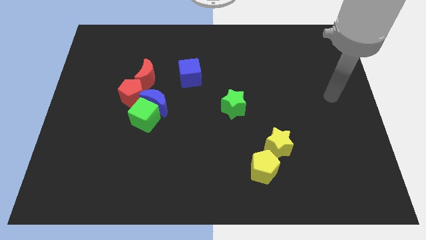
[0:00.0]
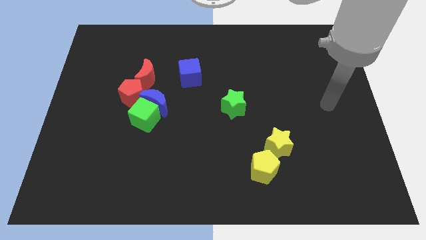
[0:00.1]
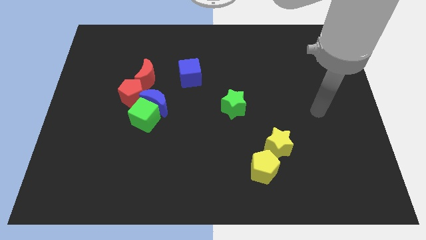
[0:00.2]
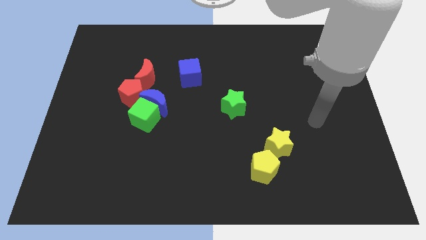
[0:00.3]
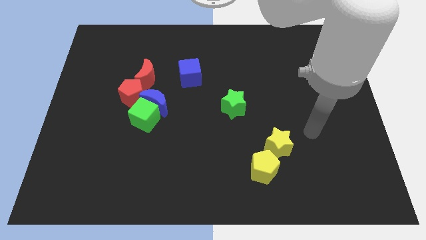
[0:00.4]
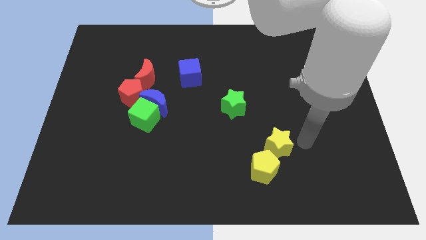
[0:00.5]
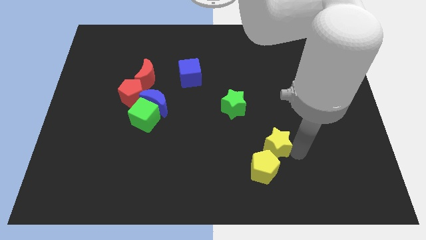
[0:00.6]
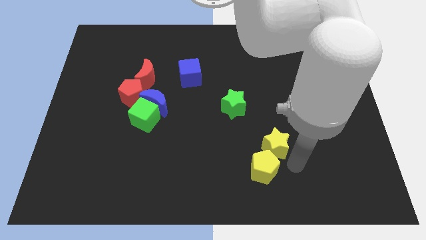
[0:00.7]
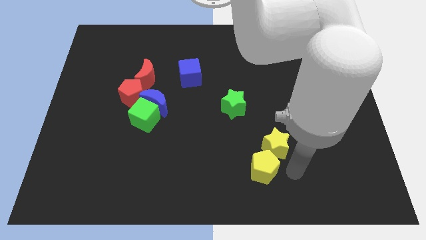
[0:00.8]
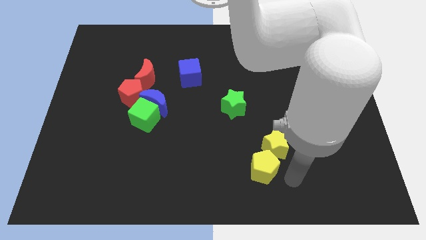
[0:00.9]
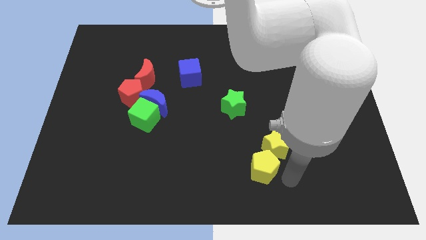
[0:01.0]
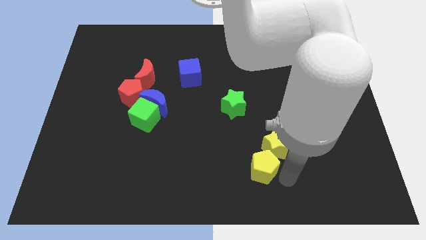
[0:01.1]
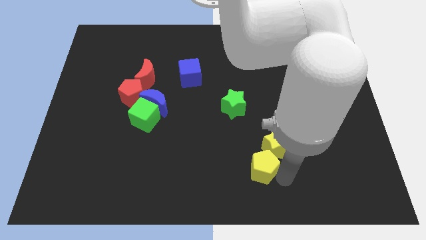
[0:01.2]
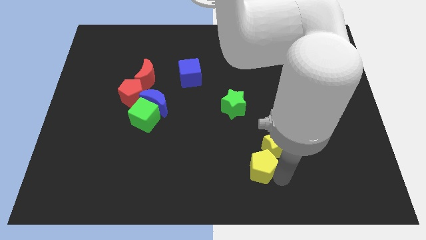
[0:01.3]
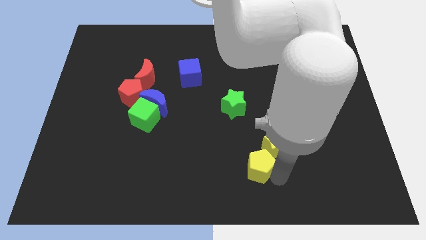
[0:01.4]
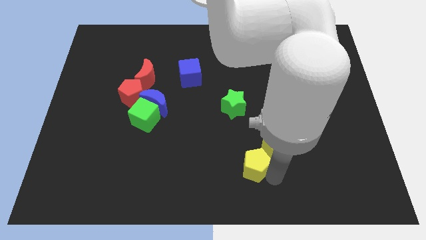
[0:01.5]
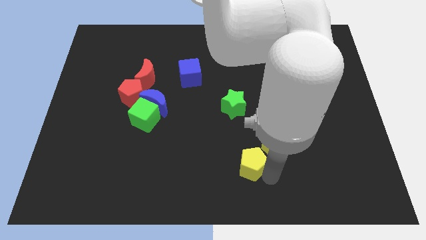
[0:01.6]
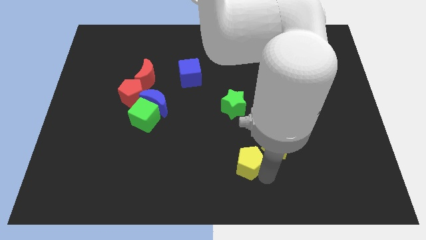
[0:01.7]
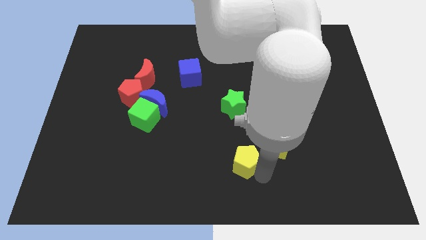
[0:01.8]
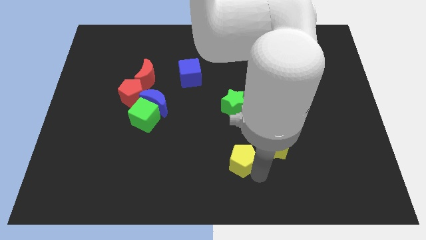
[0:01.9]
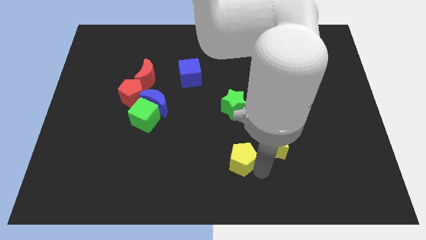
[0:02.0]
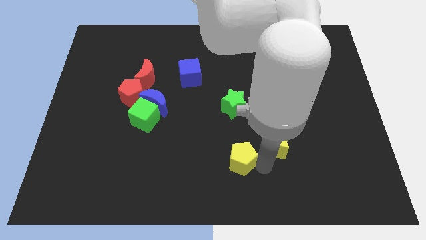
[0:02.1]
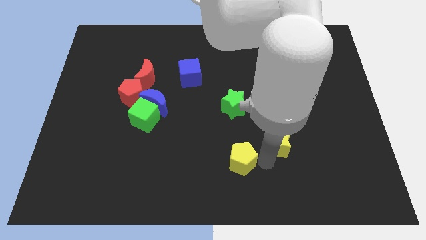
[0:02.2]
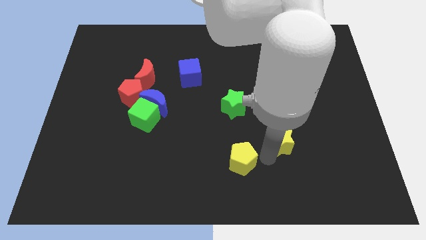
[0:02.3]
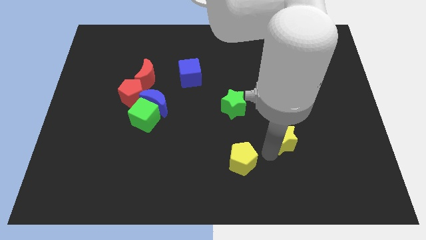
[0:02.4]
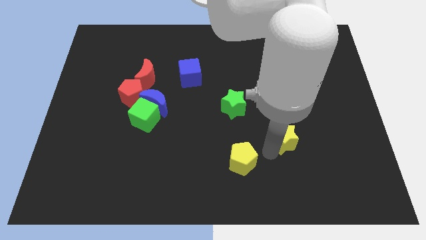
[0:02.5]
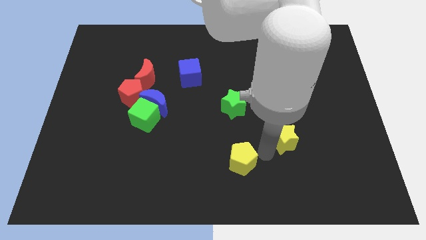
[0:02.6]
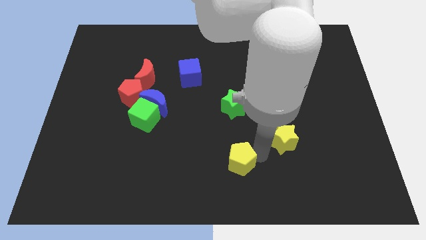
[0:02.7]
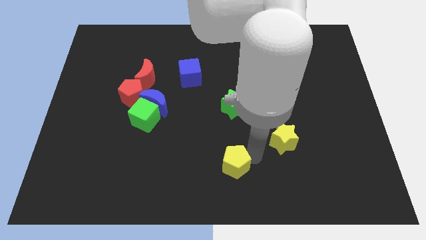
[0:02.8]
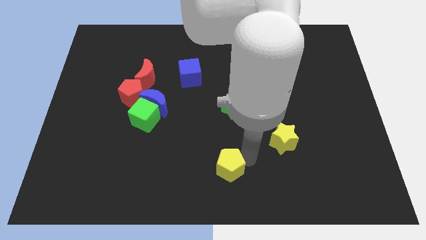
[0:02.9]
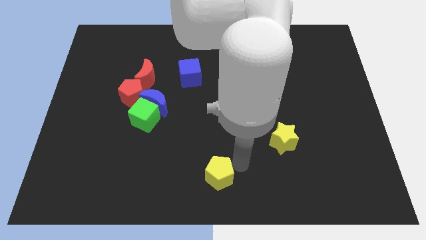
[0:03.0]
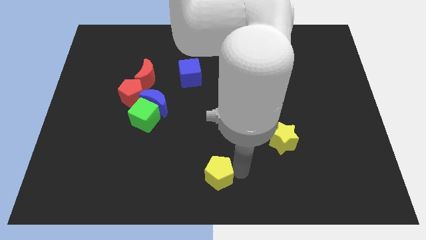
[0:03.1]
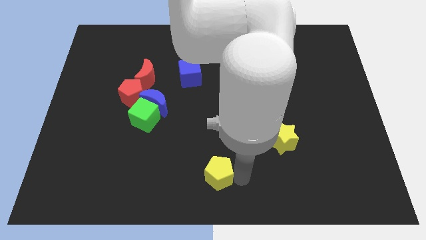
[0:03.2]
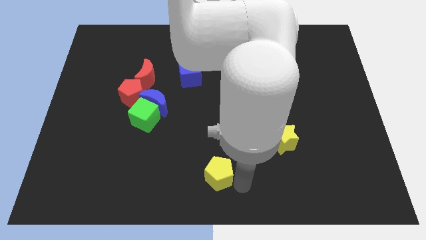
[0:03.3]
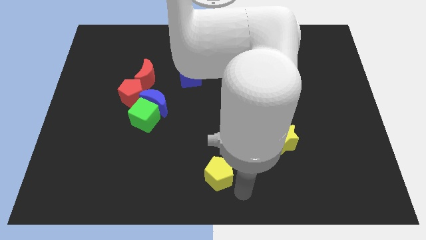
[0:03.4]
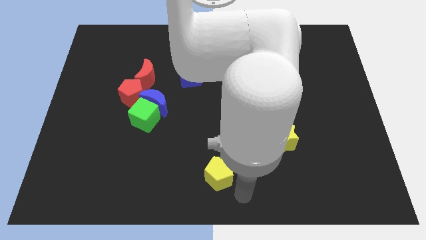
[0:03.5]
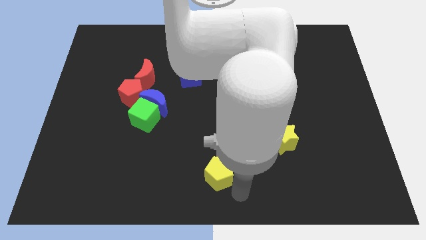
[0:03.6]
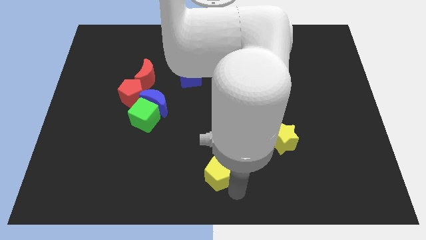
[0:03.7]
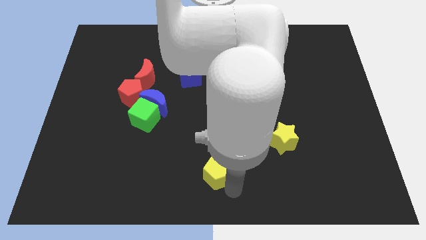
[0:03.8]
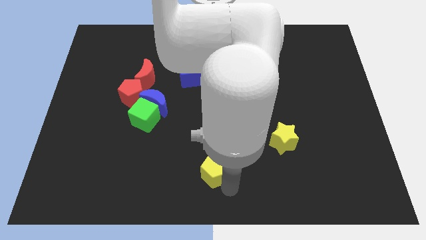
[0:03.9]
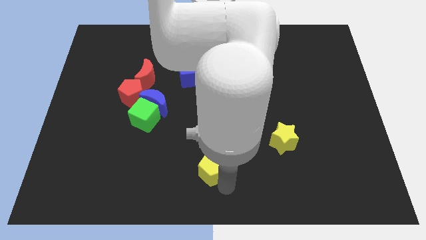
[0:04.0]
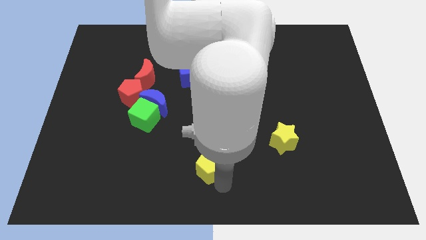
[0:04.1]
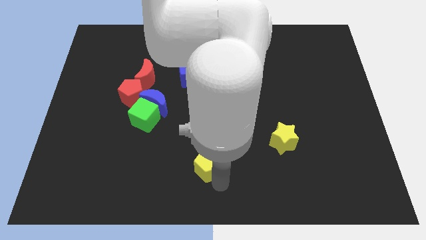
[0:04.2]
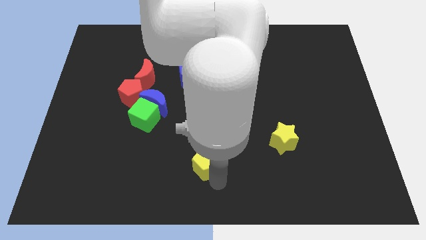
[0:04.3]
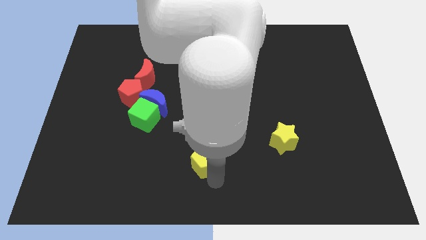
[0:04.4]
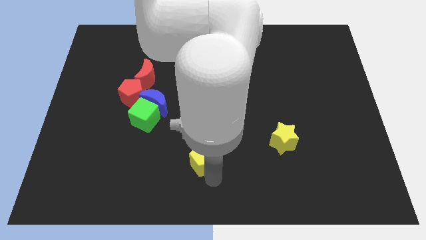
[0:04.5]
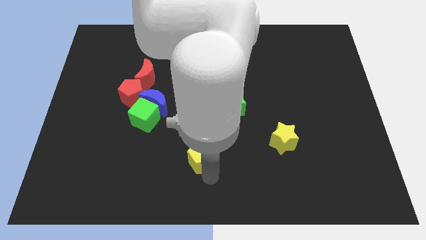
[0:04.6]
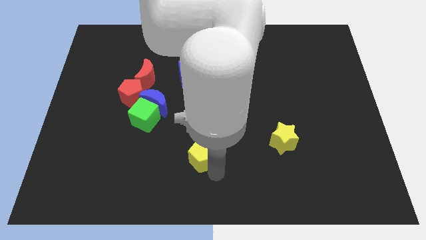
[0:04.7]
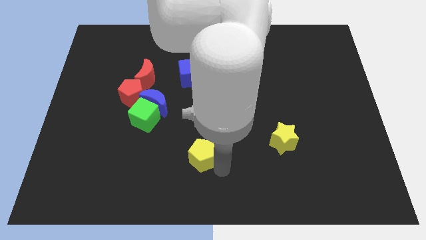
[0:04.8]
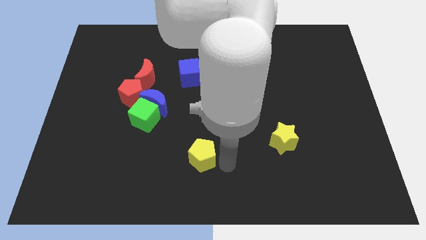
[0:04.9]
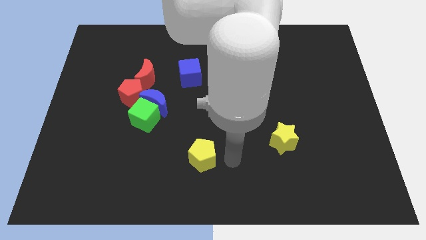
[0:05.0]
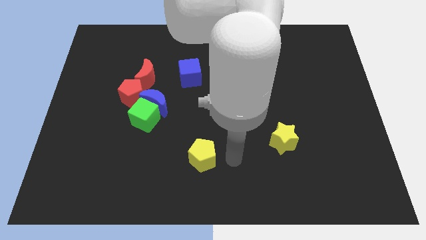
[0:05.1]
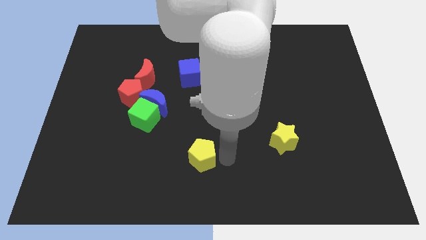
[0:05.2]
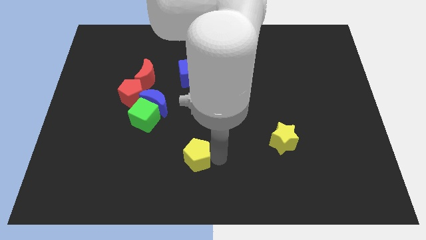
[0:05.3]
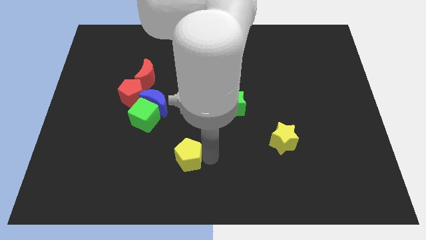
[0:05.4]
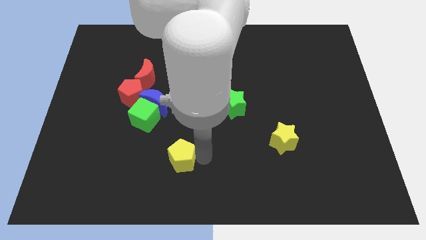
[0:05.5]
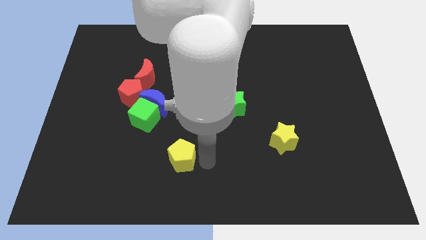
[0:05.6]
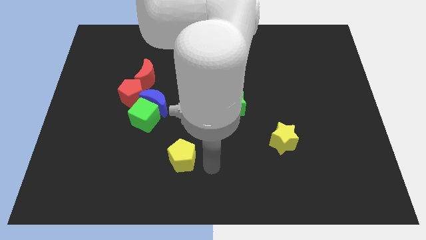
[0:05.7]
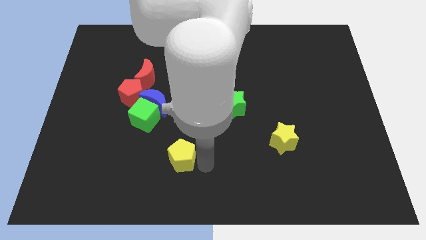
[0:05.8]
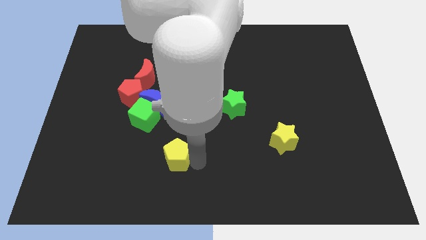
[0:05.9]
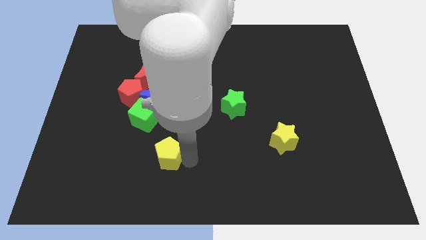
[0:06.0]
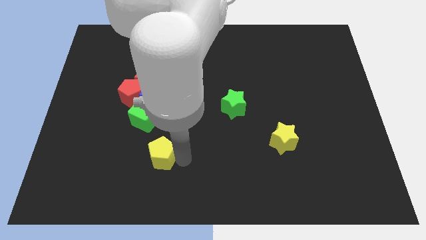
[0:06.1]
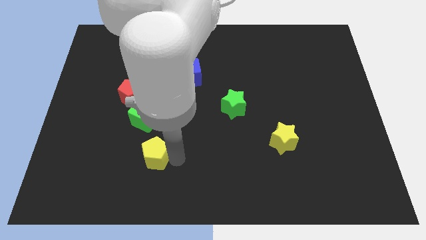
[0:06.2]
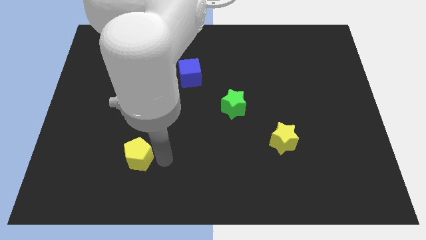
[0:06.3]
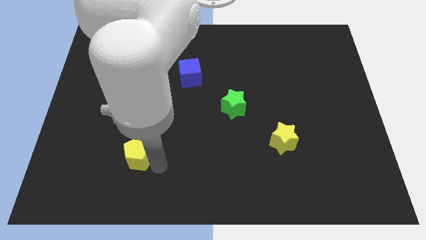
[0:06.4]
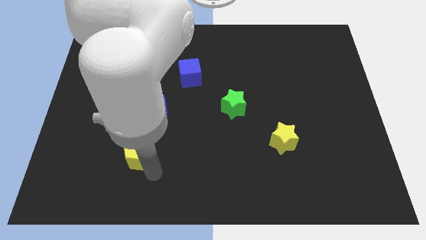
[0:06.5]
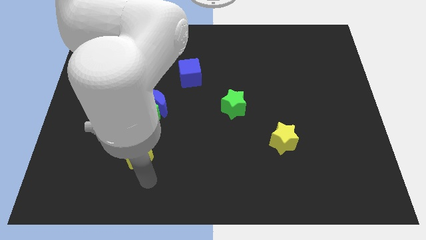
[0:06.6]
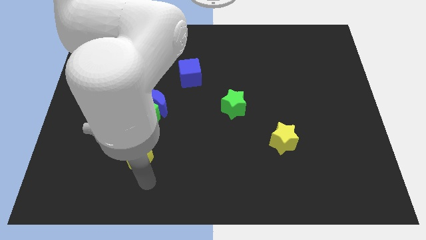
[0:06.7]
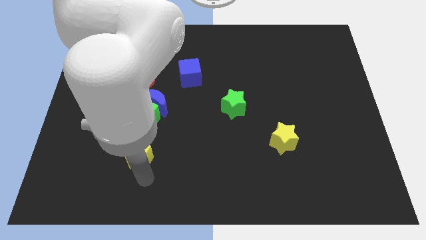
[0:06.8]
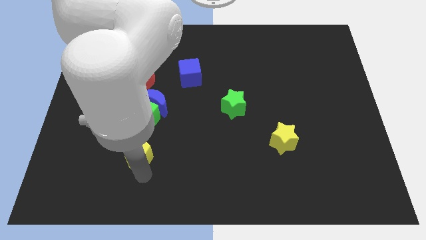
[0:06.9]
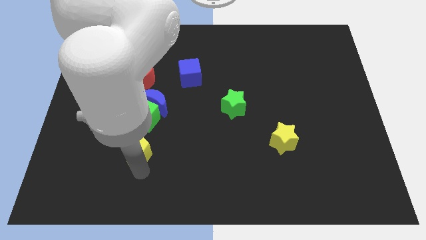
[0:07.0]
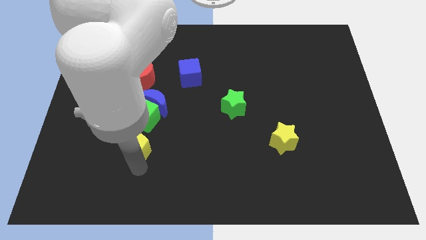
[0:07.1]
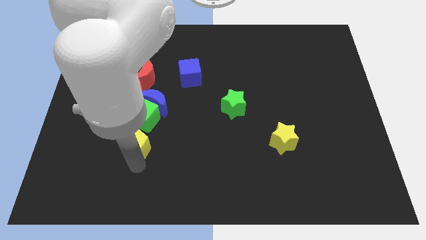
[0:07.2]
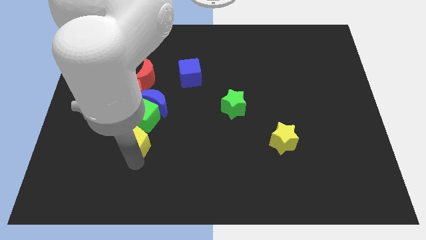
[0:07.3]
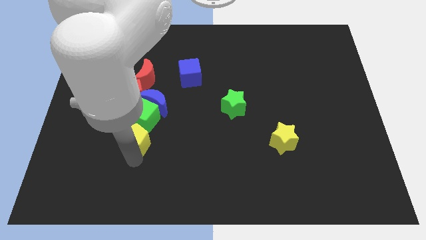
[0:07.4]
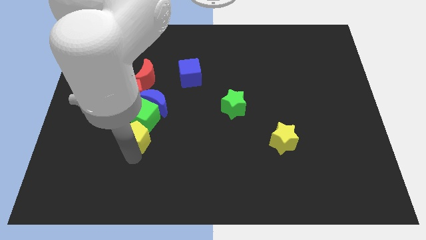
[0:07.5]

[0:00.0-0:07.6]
push the yellow pentagon to the bottom left of the blue moon
